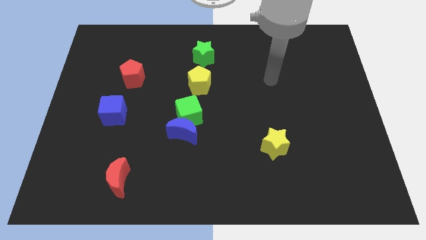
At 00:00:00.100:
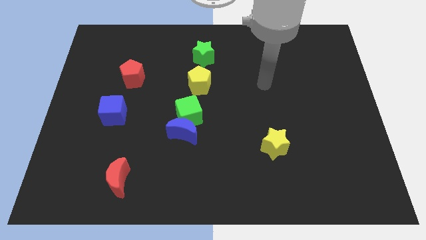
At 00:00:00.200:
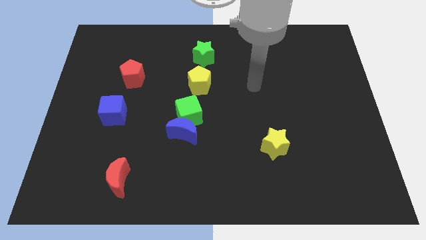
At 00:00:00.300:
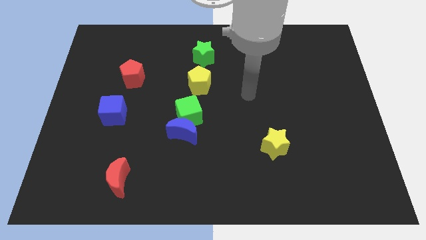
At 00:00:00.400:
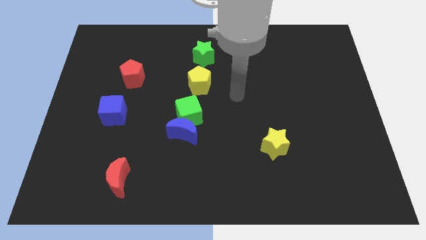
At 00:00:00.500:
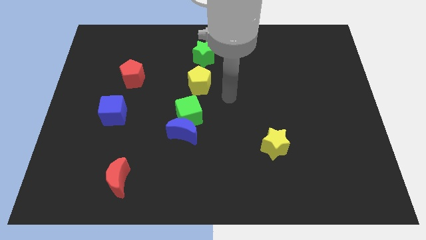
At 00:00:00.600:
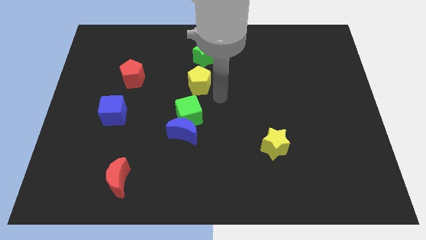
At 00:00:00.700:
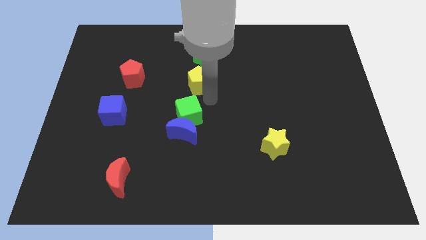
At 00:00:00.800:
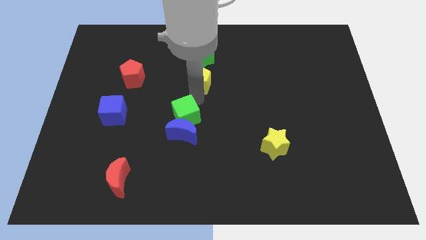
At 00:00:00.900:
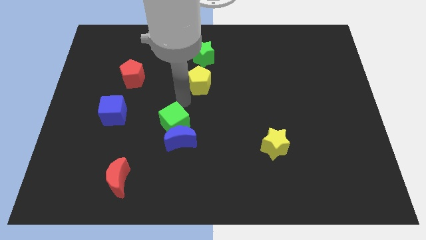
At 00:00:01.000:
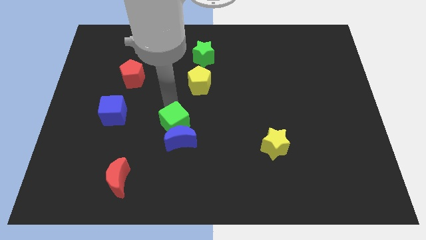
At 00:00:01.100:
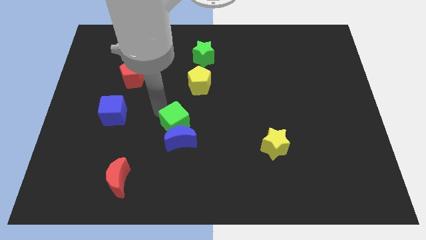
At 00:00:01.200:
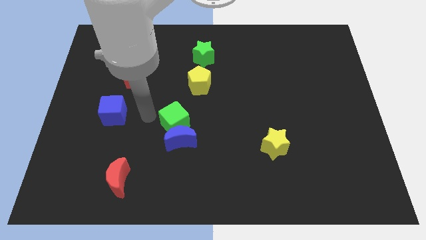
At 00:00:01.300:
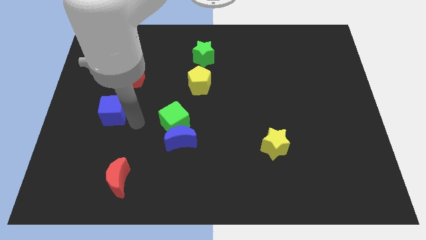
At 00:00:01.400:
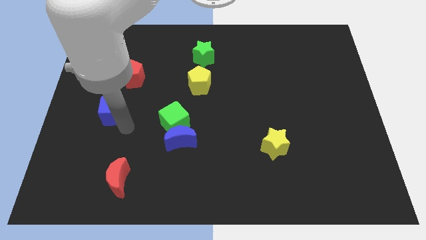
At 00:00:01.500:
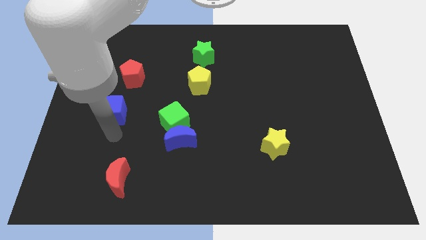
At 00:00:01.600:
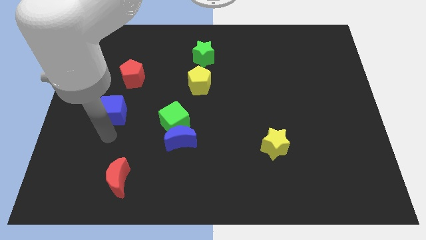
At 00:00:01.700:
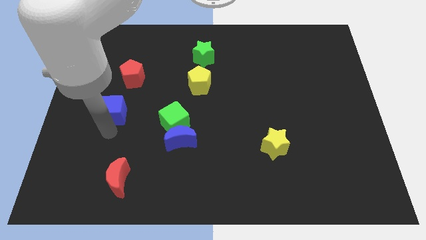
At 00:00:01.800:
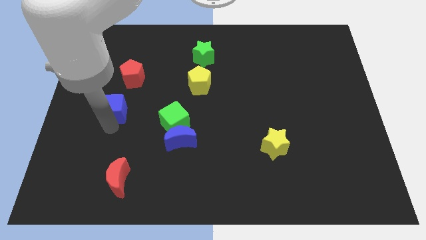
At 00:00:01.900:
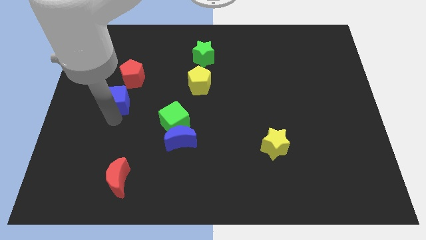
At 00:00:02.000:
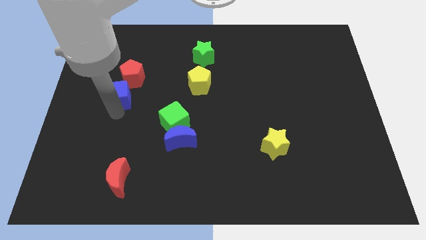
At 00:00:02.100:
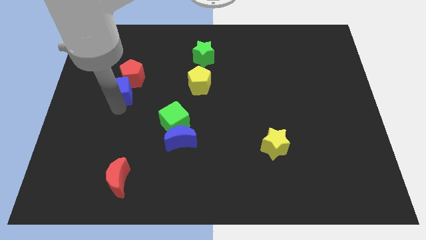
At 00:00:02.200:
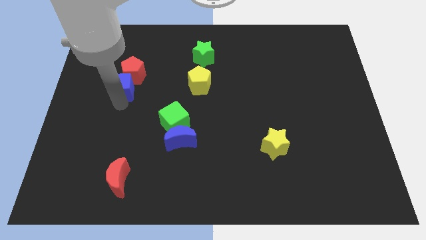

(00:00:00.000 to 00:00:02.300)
move the blue cube upwards a little

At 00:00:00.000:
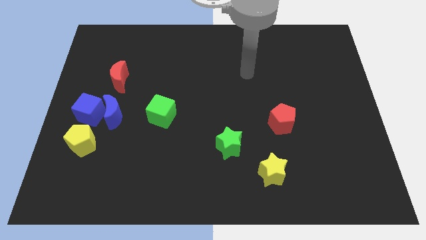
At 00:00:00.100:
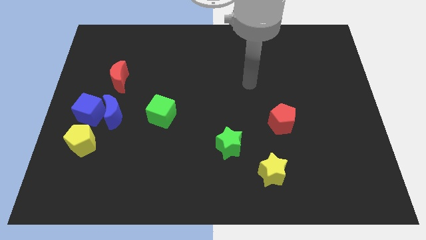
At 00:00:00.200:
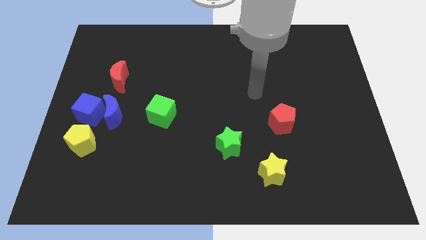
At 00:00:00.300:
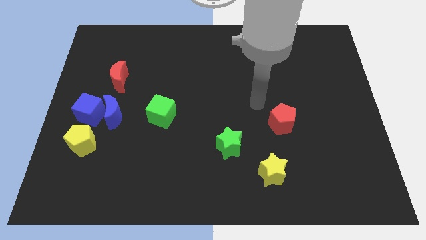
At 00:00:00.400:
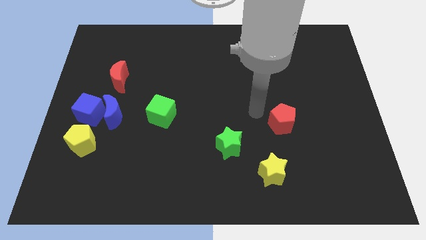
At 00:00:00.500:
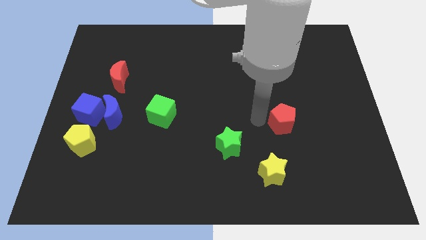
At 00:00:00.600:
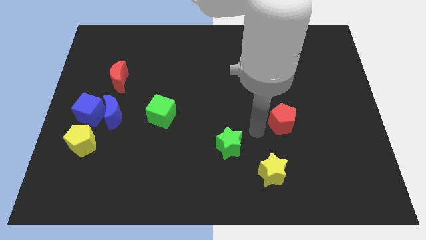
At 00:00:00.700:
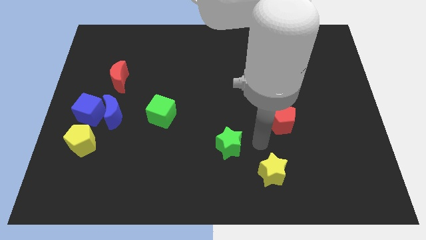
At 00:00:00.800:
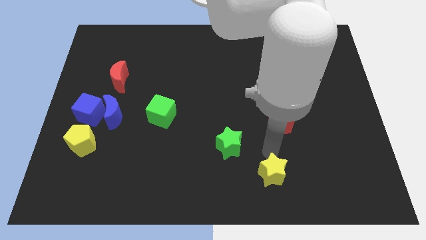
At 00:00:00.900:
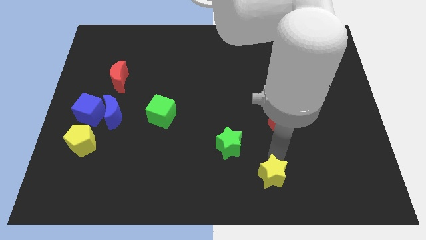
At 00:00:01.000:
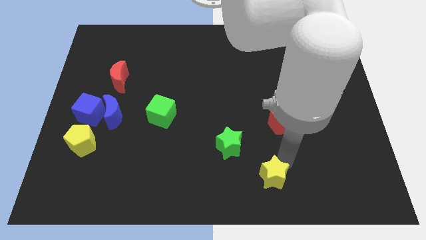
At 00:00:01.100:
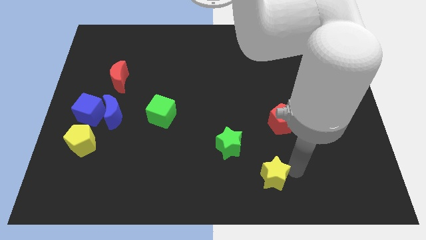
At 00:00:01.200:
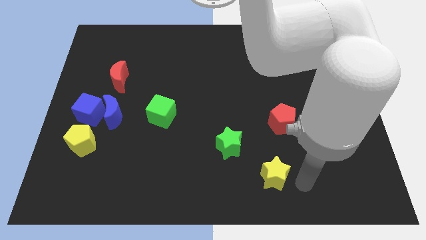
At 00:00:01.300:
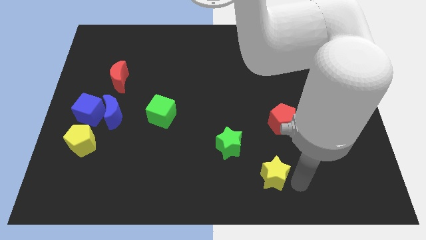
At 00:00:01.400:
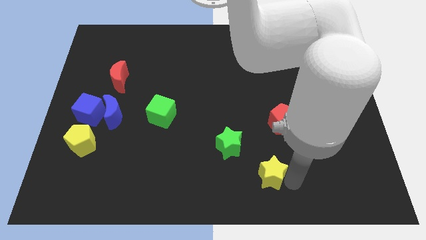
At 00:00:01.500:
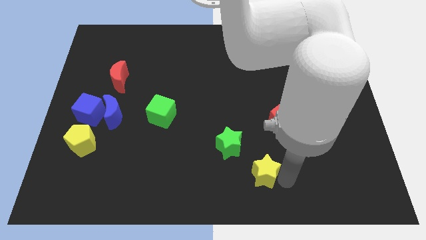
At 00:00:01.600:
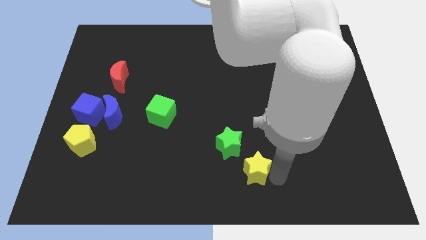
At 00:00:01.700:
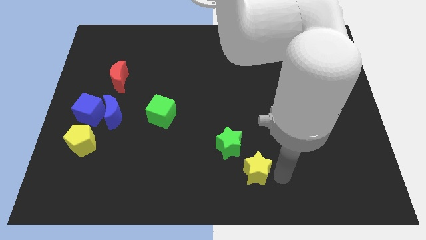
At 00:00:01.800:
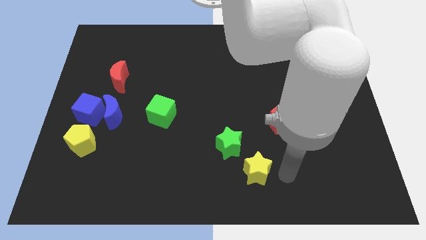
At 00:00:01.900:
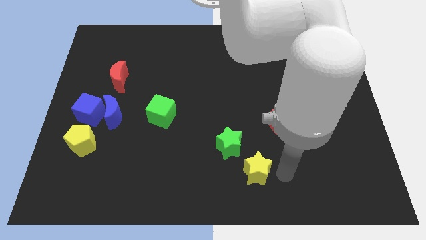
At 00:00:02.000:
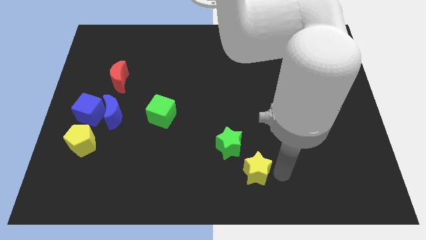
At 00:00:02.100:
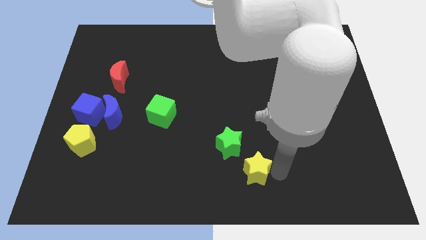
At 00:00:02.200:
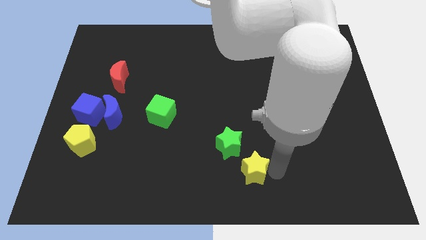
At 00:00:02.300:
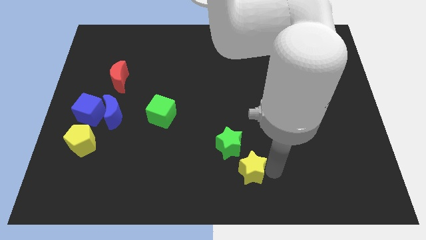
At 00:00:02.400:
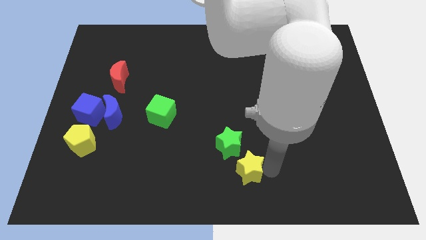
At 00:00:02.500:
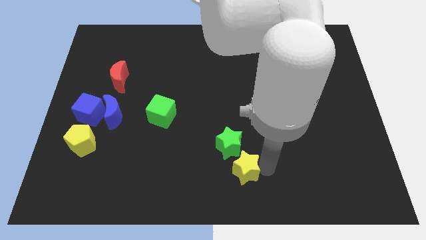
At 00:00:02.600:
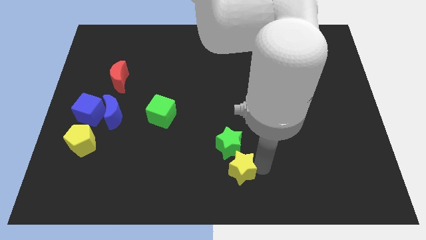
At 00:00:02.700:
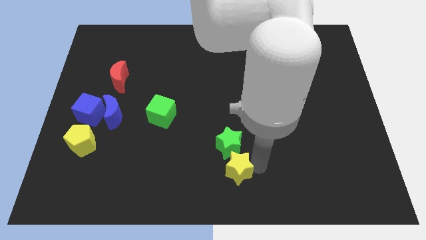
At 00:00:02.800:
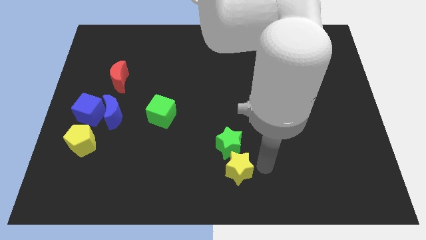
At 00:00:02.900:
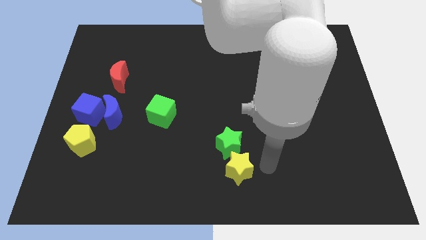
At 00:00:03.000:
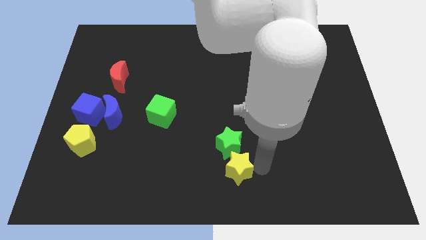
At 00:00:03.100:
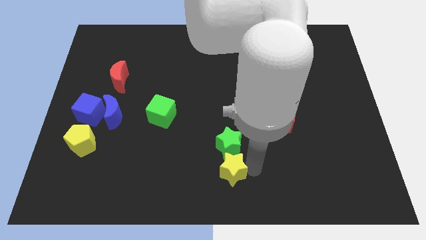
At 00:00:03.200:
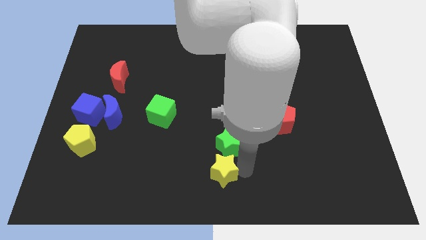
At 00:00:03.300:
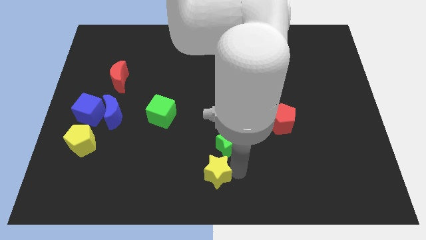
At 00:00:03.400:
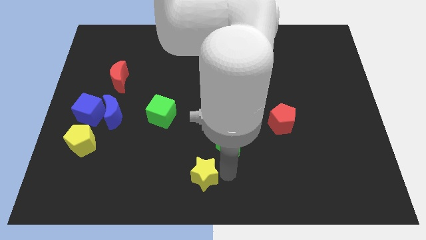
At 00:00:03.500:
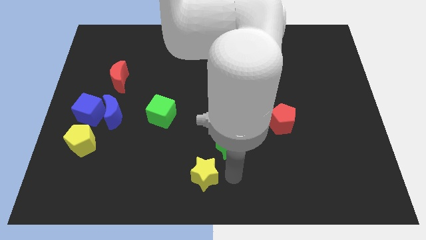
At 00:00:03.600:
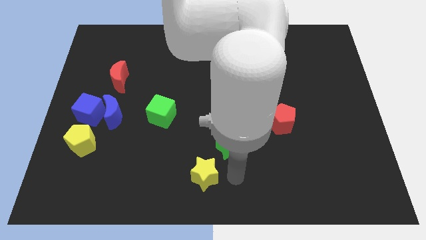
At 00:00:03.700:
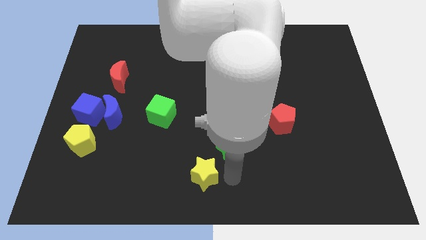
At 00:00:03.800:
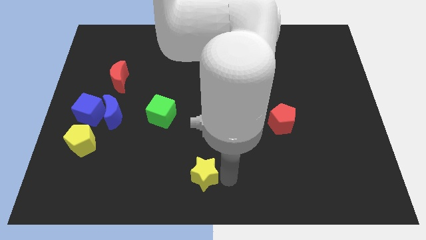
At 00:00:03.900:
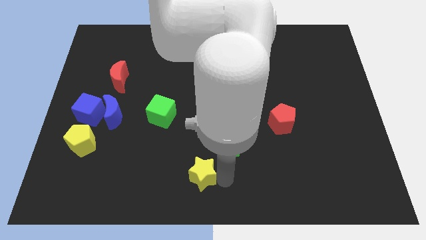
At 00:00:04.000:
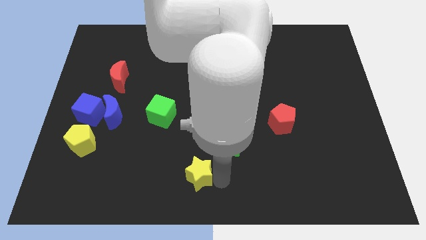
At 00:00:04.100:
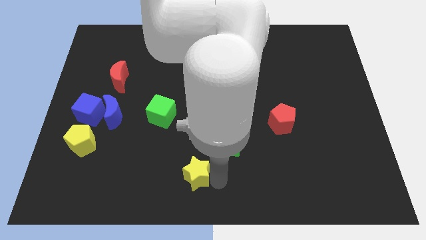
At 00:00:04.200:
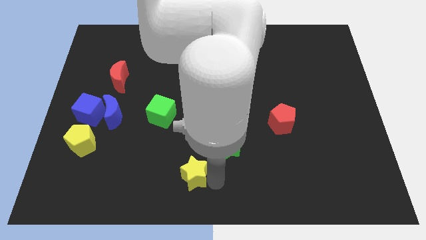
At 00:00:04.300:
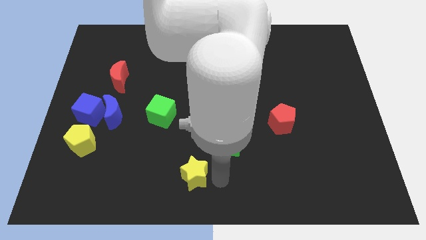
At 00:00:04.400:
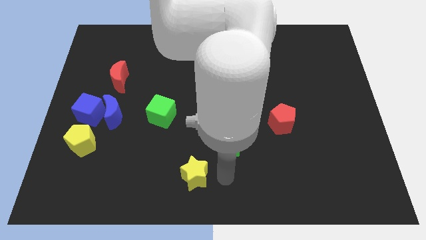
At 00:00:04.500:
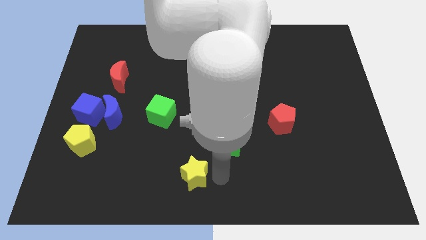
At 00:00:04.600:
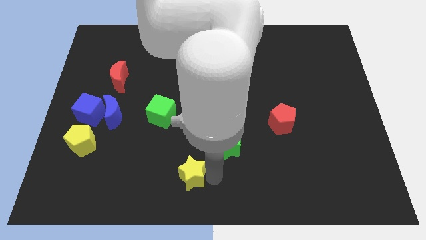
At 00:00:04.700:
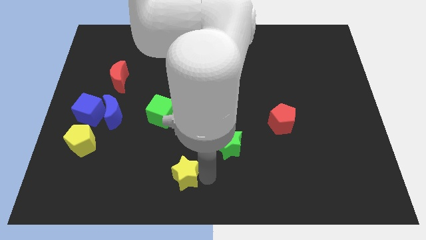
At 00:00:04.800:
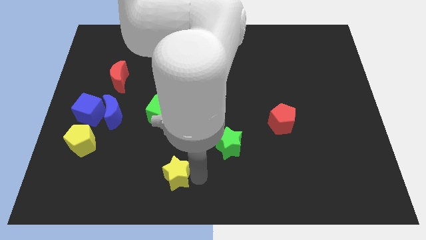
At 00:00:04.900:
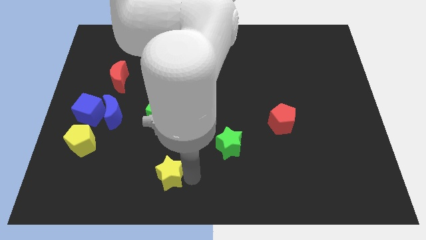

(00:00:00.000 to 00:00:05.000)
move the yellow star to the left

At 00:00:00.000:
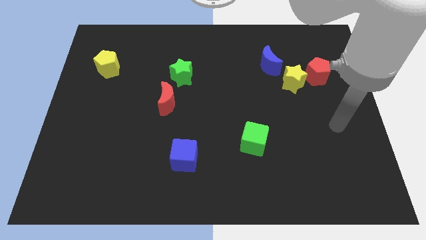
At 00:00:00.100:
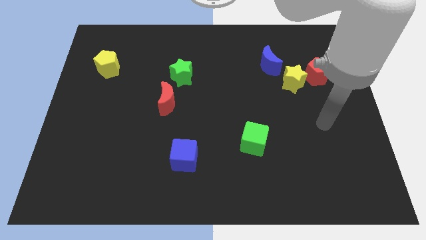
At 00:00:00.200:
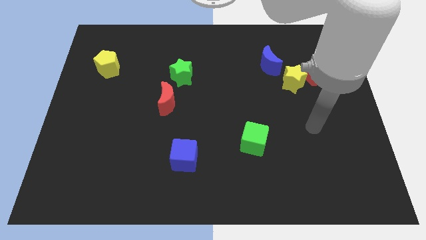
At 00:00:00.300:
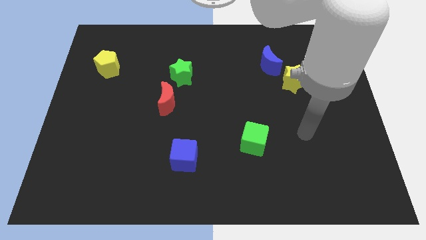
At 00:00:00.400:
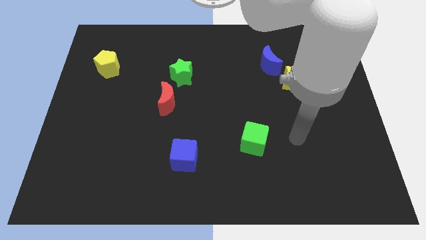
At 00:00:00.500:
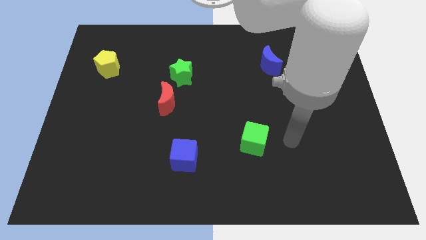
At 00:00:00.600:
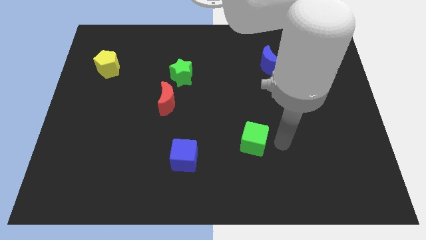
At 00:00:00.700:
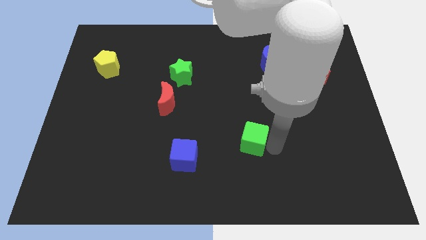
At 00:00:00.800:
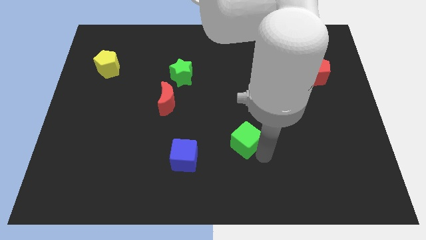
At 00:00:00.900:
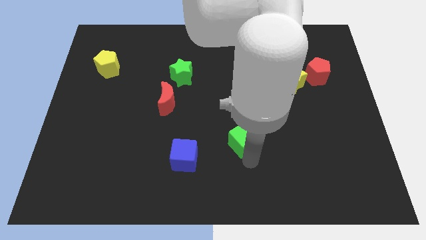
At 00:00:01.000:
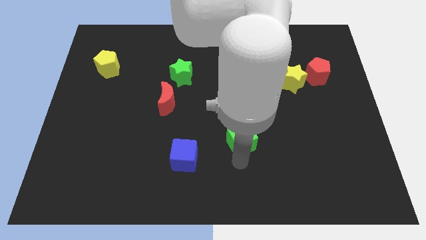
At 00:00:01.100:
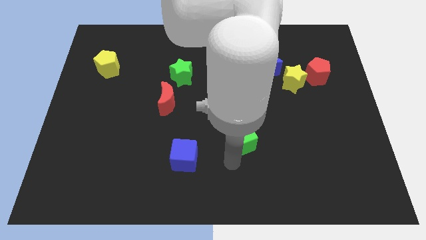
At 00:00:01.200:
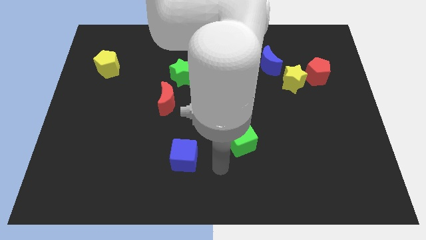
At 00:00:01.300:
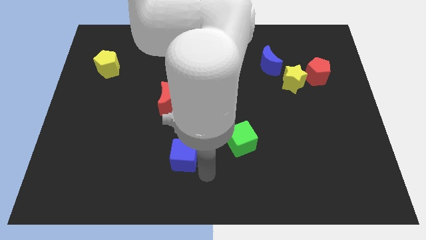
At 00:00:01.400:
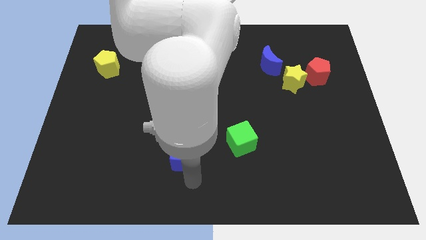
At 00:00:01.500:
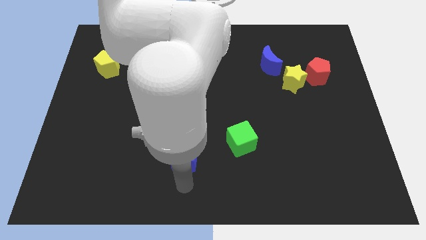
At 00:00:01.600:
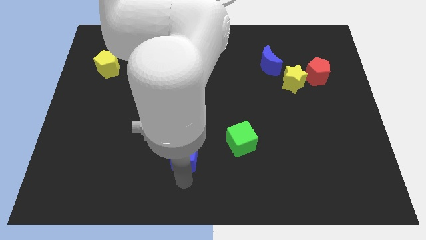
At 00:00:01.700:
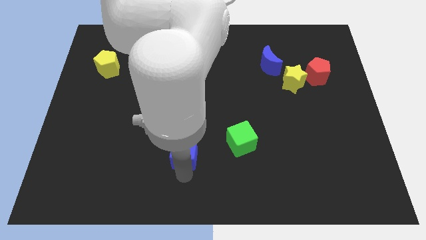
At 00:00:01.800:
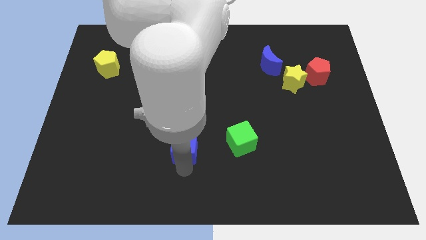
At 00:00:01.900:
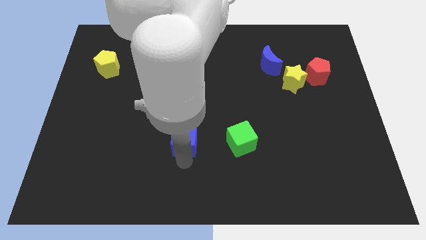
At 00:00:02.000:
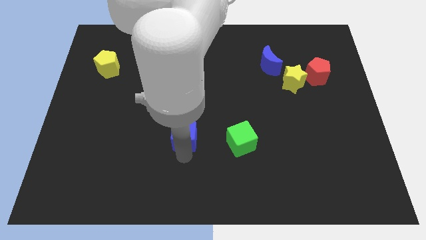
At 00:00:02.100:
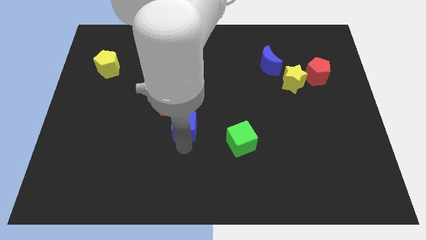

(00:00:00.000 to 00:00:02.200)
slide the blue cube somewhat up
